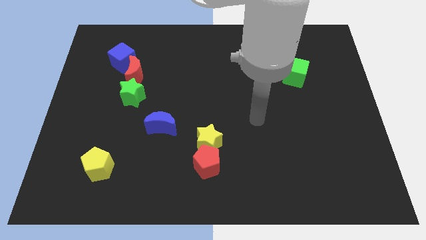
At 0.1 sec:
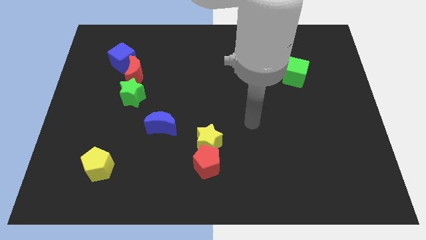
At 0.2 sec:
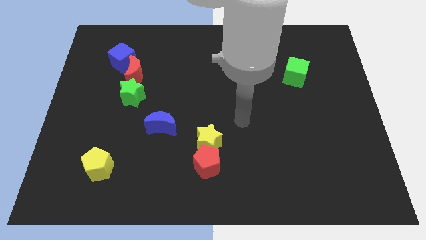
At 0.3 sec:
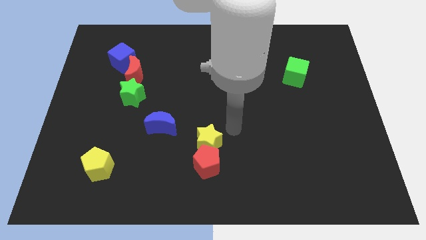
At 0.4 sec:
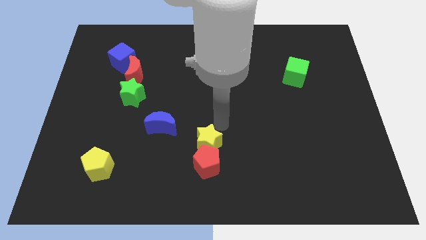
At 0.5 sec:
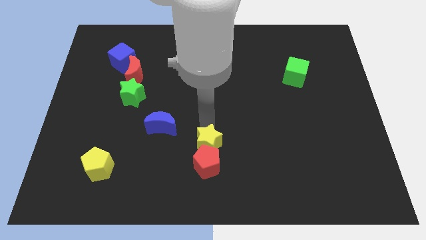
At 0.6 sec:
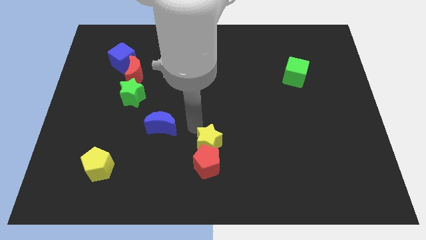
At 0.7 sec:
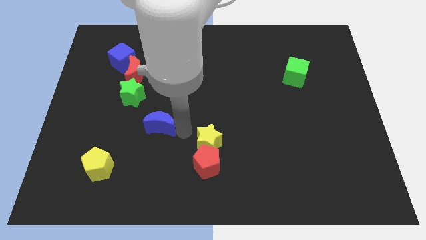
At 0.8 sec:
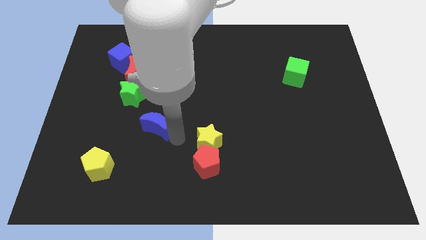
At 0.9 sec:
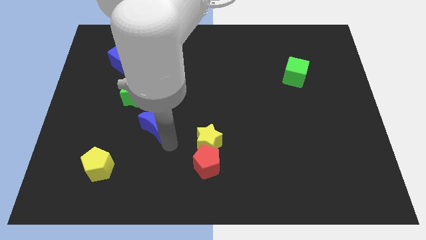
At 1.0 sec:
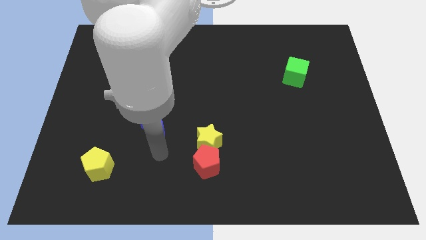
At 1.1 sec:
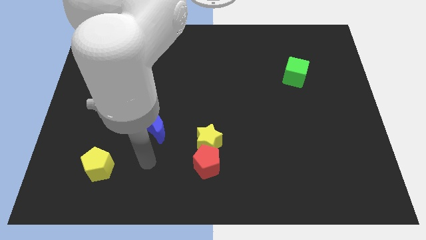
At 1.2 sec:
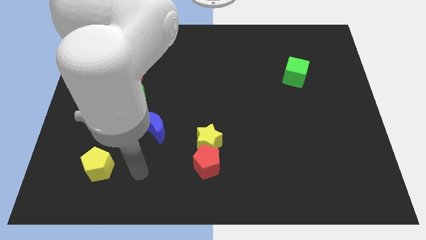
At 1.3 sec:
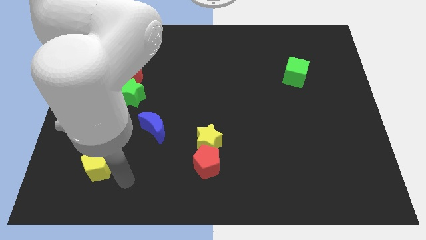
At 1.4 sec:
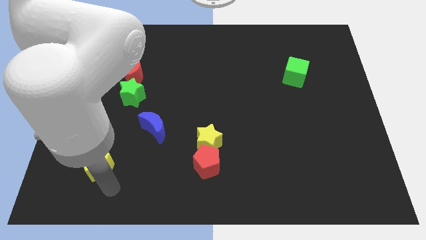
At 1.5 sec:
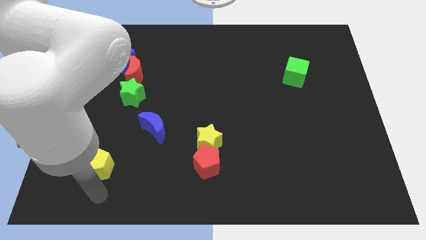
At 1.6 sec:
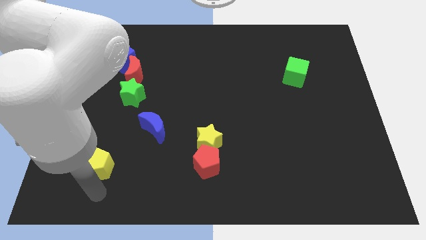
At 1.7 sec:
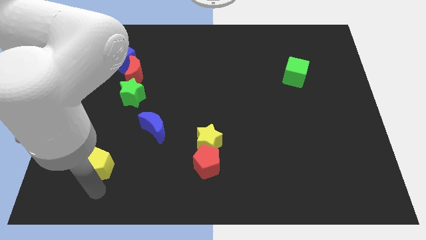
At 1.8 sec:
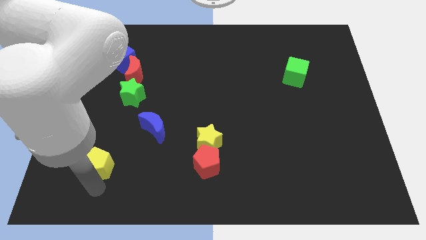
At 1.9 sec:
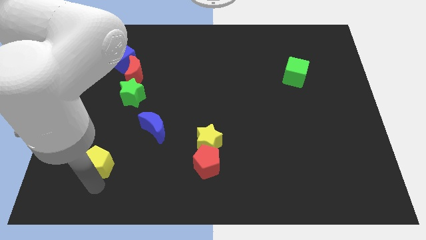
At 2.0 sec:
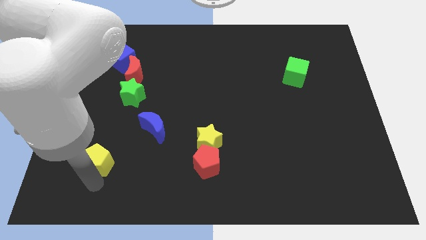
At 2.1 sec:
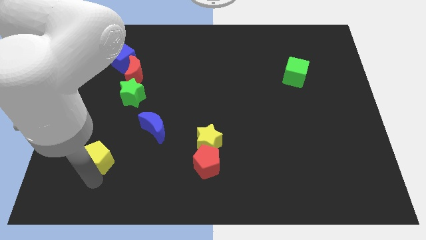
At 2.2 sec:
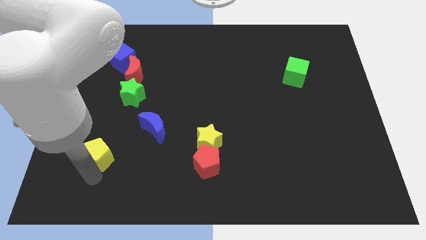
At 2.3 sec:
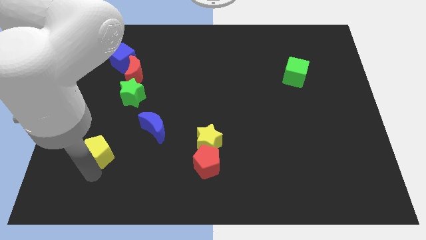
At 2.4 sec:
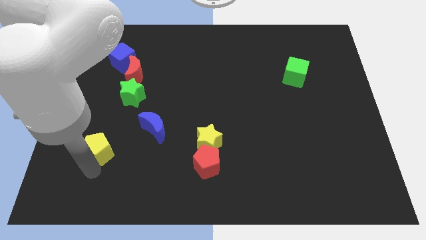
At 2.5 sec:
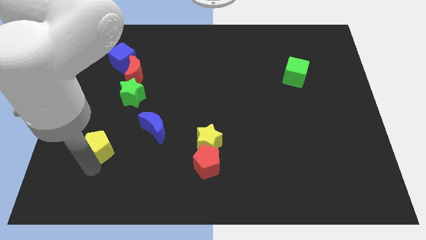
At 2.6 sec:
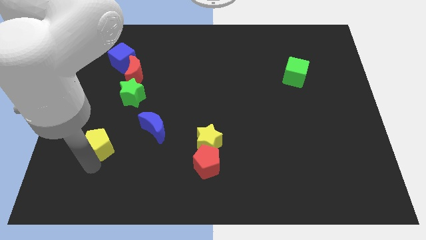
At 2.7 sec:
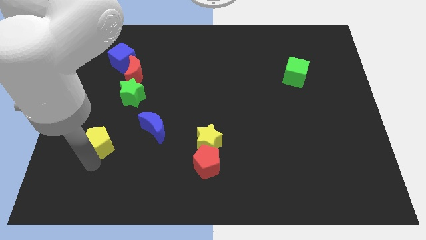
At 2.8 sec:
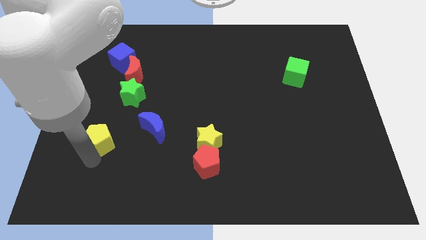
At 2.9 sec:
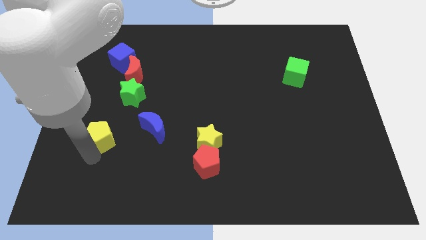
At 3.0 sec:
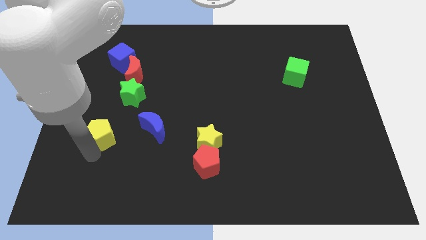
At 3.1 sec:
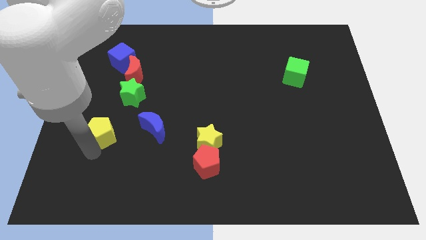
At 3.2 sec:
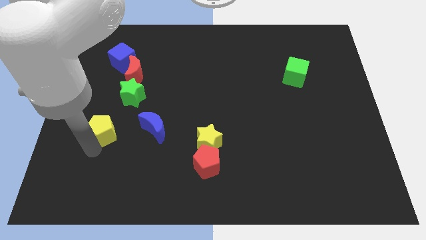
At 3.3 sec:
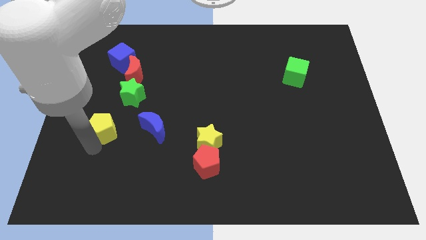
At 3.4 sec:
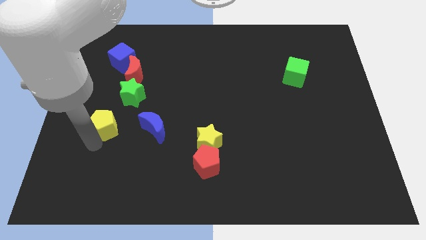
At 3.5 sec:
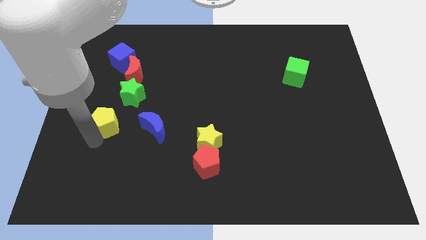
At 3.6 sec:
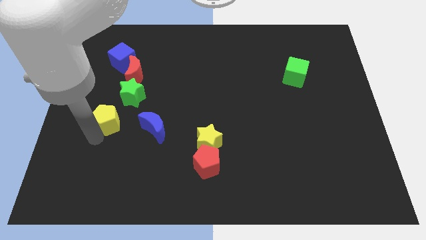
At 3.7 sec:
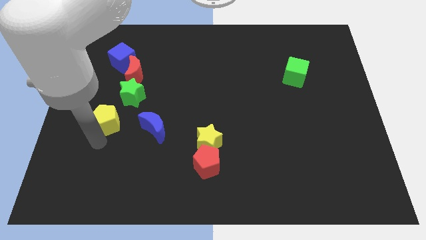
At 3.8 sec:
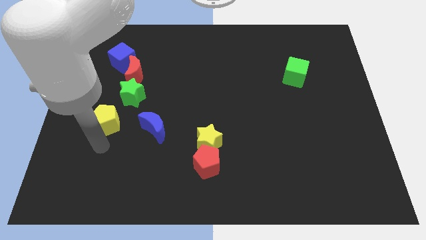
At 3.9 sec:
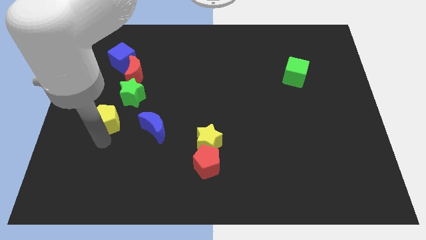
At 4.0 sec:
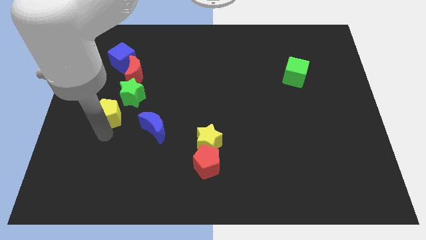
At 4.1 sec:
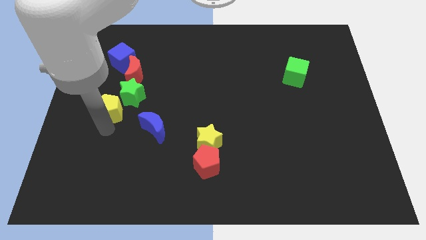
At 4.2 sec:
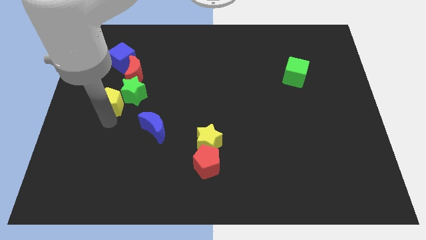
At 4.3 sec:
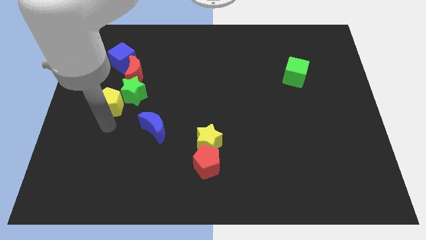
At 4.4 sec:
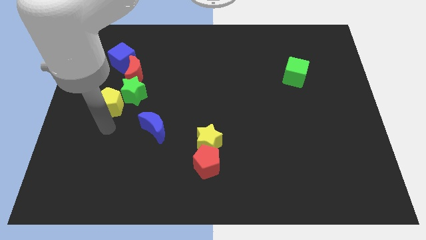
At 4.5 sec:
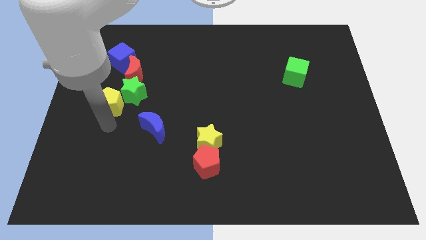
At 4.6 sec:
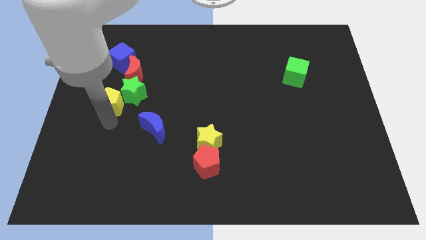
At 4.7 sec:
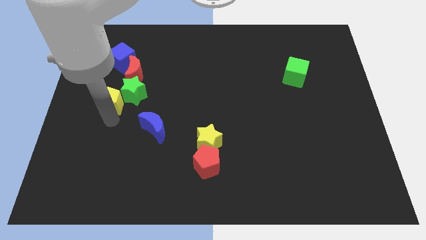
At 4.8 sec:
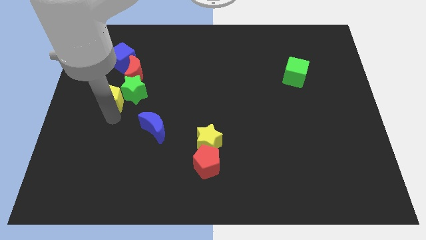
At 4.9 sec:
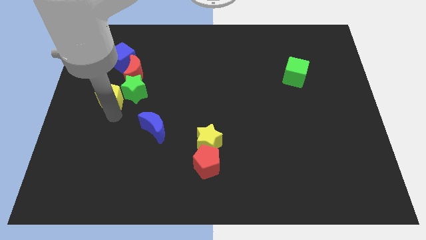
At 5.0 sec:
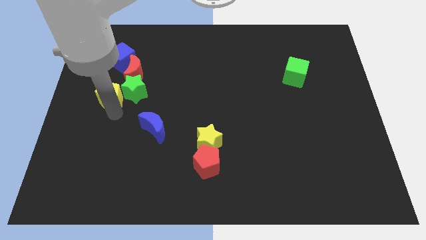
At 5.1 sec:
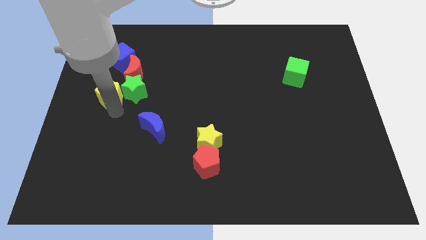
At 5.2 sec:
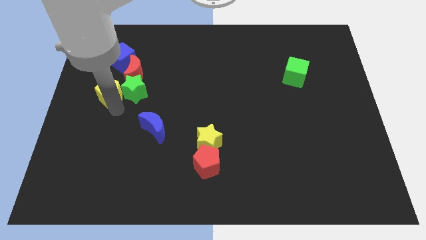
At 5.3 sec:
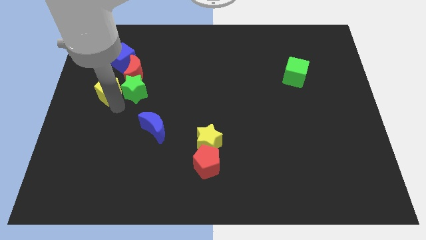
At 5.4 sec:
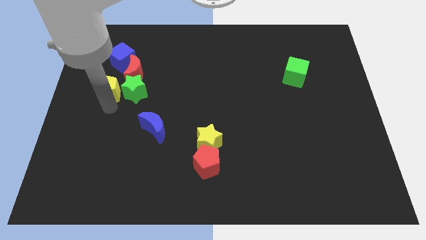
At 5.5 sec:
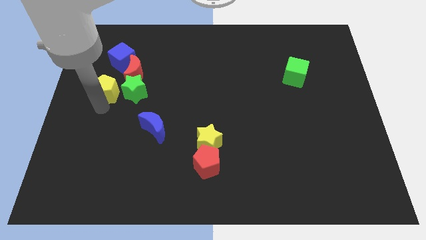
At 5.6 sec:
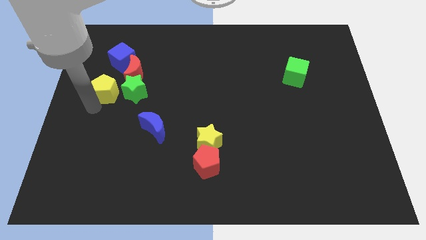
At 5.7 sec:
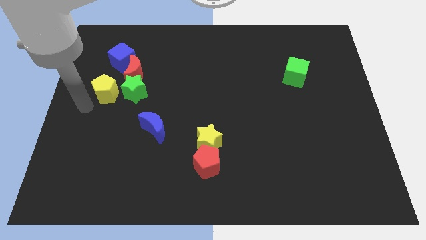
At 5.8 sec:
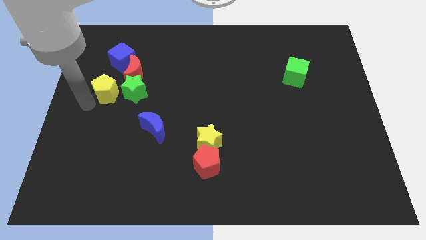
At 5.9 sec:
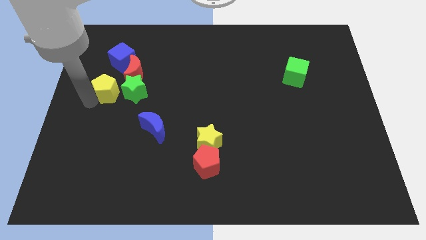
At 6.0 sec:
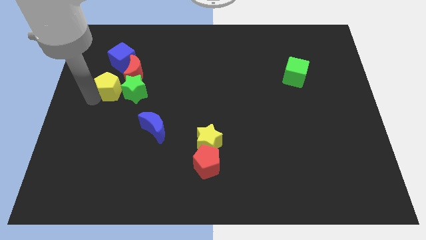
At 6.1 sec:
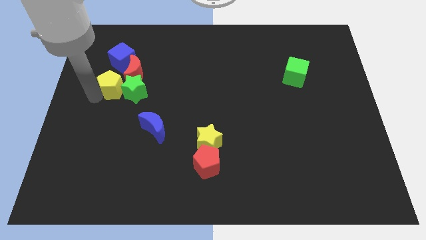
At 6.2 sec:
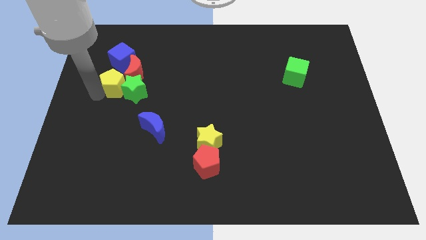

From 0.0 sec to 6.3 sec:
put the yellow pentagon next to the red moon
